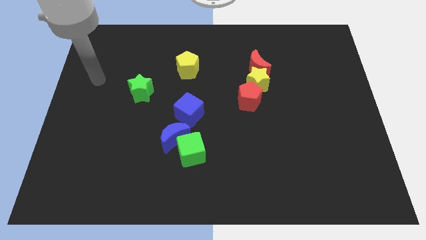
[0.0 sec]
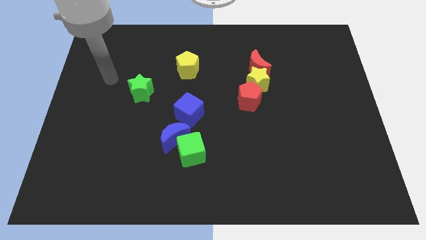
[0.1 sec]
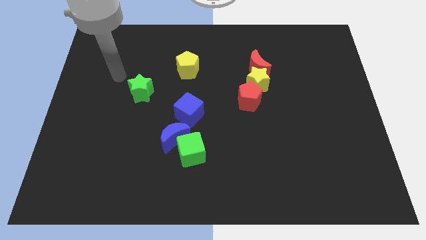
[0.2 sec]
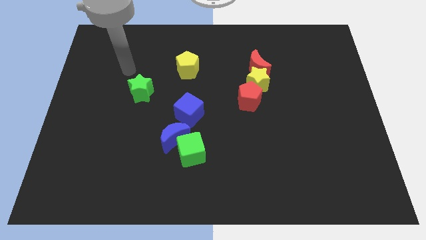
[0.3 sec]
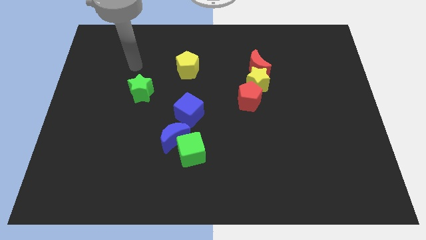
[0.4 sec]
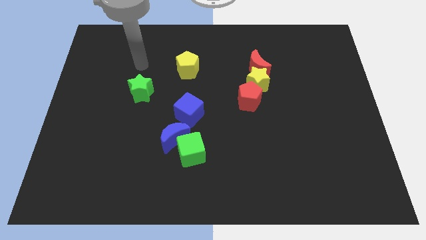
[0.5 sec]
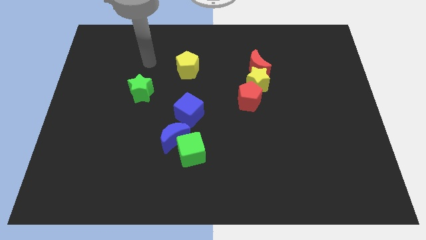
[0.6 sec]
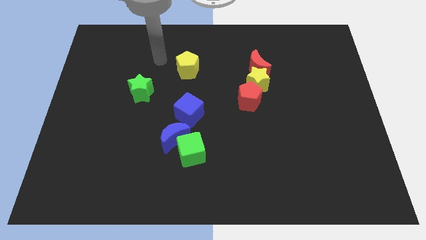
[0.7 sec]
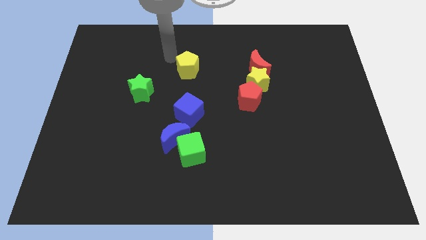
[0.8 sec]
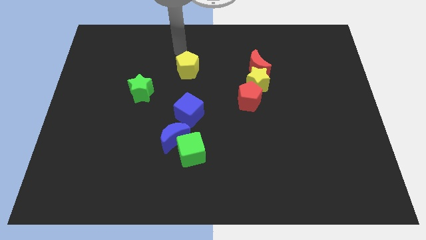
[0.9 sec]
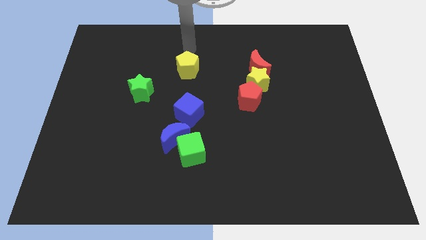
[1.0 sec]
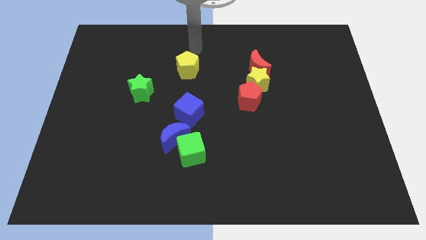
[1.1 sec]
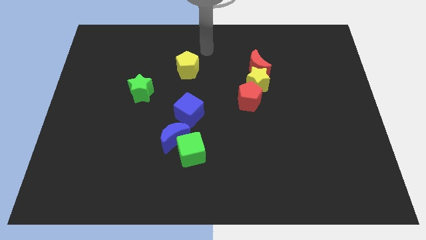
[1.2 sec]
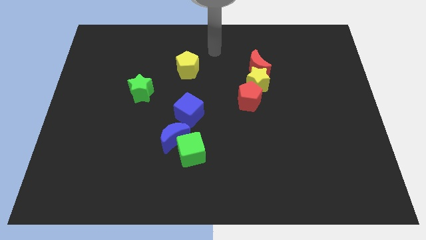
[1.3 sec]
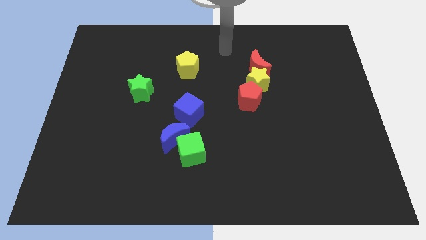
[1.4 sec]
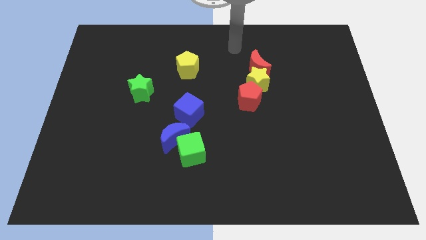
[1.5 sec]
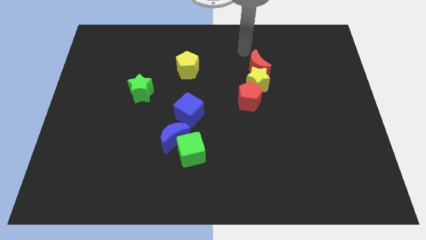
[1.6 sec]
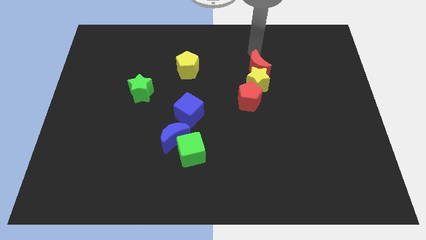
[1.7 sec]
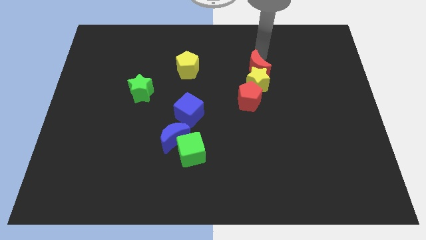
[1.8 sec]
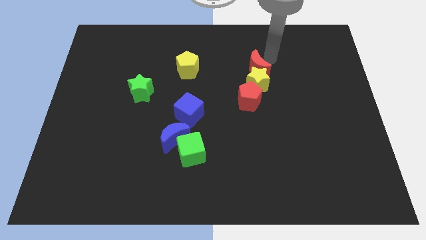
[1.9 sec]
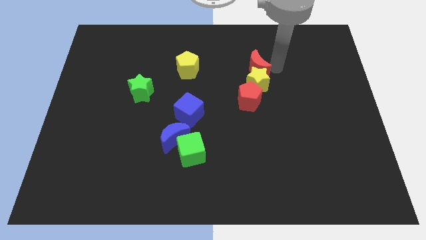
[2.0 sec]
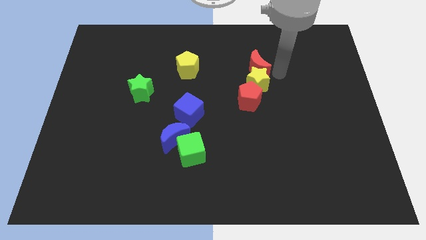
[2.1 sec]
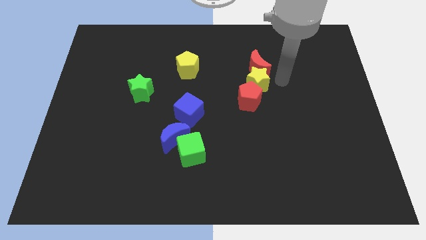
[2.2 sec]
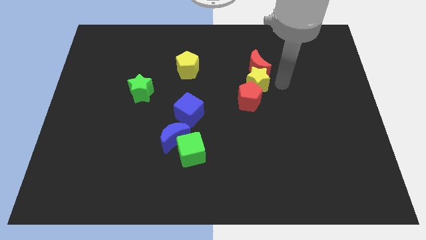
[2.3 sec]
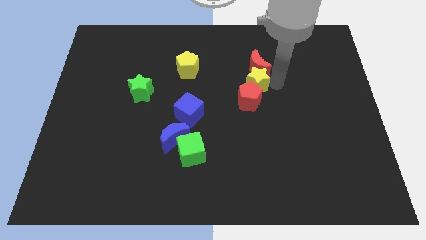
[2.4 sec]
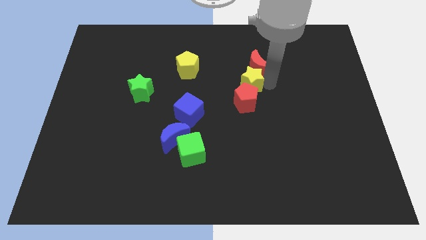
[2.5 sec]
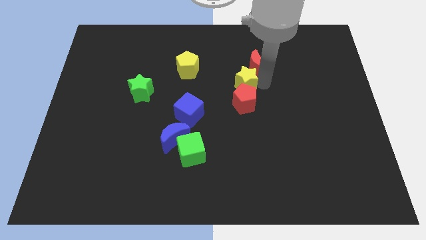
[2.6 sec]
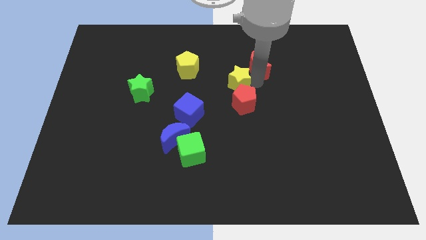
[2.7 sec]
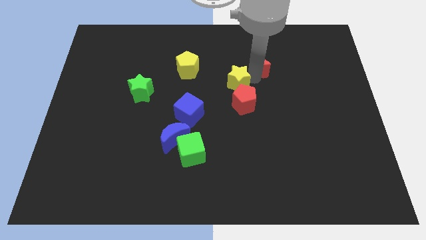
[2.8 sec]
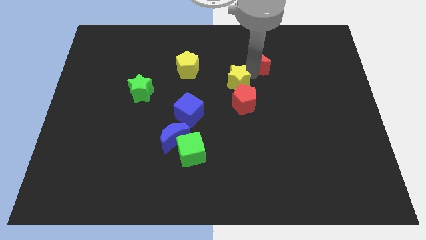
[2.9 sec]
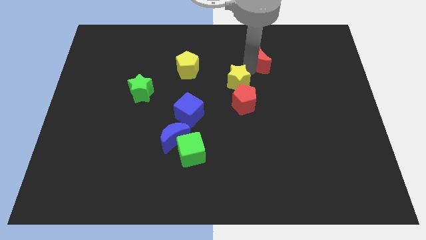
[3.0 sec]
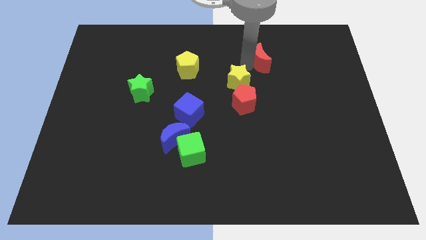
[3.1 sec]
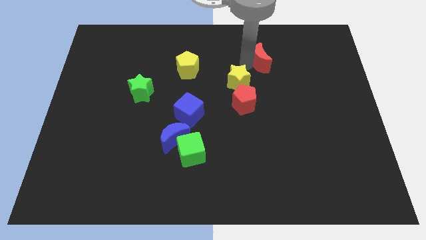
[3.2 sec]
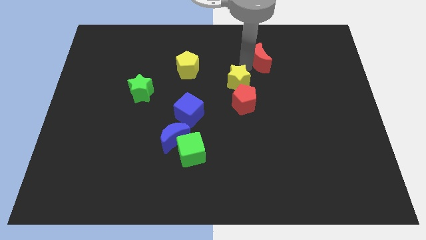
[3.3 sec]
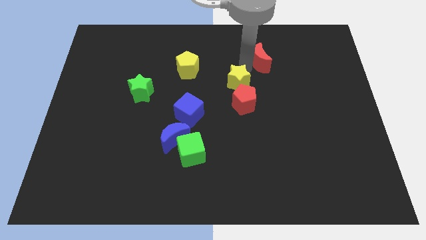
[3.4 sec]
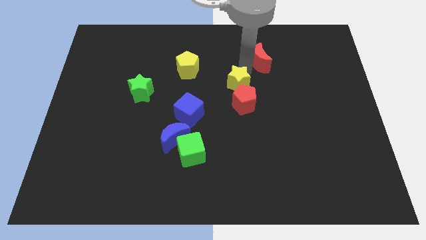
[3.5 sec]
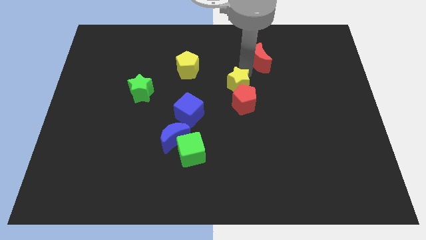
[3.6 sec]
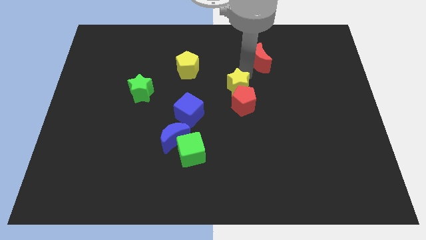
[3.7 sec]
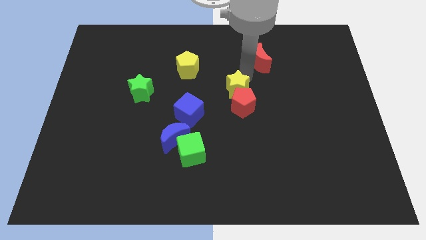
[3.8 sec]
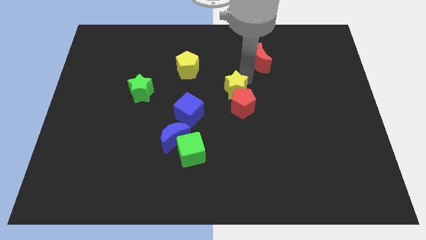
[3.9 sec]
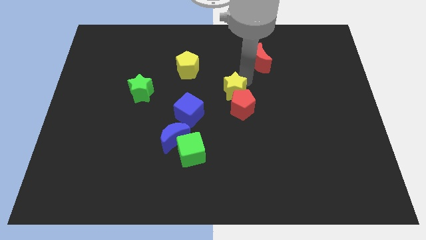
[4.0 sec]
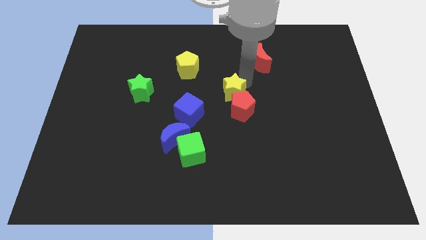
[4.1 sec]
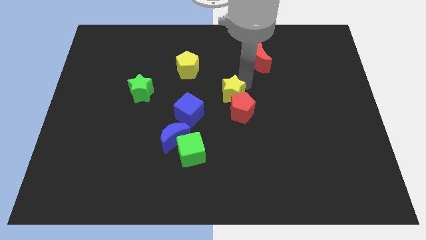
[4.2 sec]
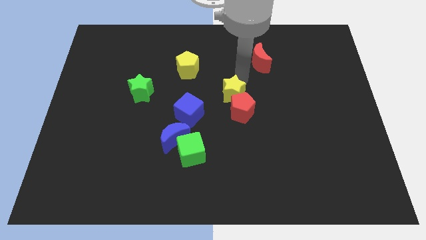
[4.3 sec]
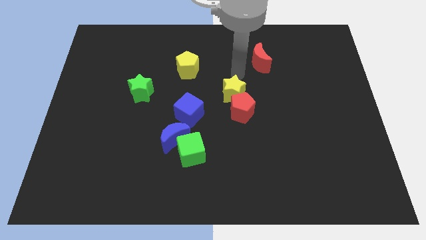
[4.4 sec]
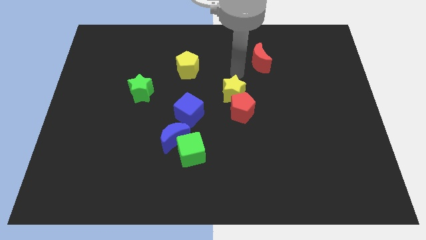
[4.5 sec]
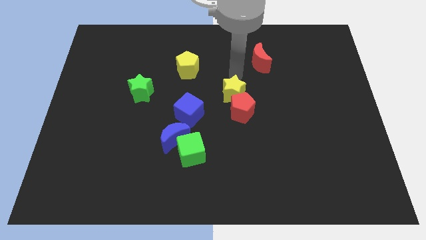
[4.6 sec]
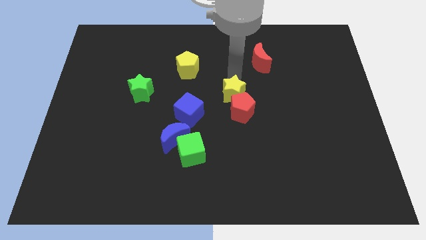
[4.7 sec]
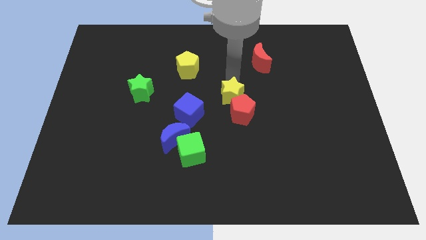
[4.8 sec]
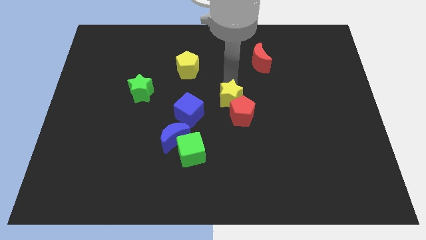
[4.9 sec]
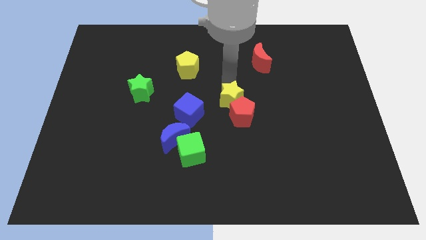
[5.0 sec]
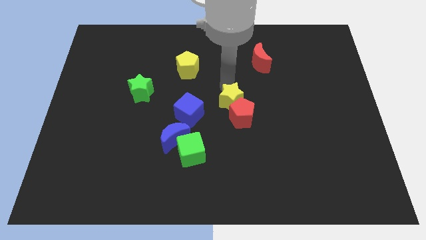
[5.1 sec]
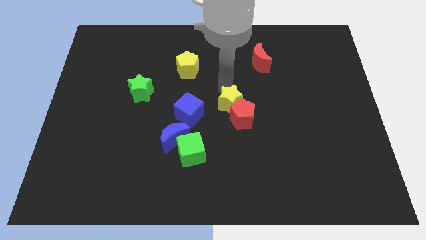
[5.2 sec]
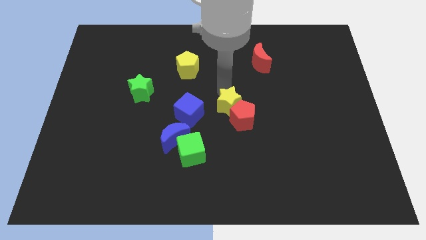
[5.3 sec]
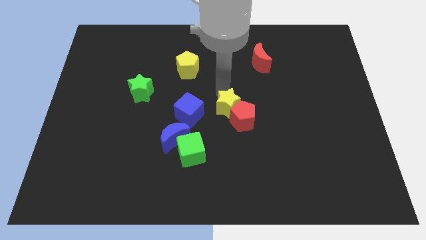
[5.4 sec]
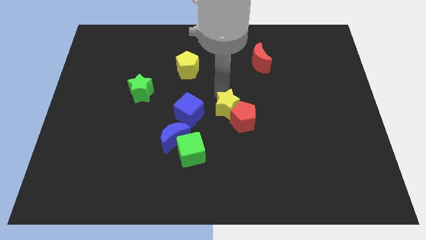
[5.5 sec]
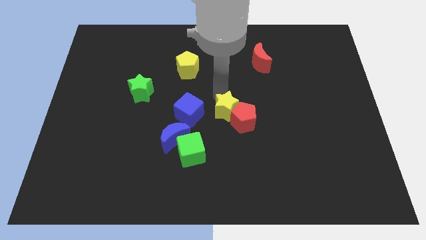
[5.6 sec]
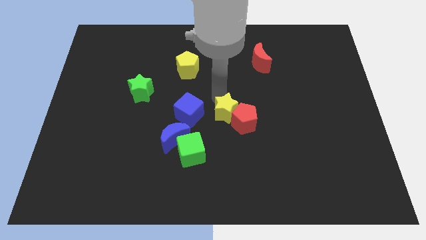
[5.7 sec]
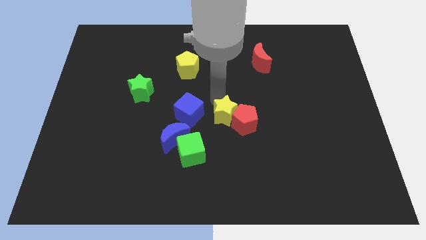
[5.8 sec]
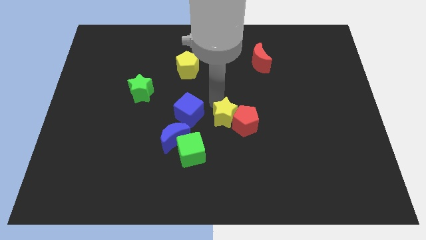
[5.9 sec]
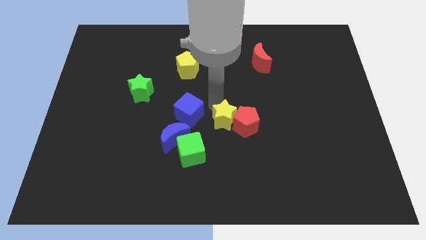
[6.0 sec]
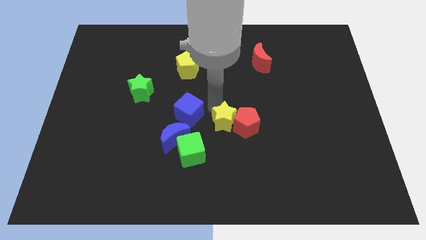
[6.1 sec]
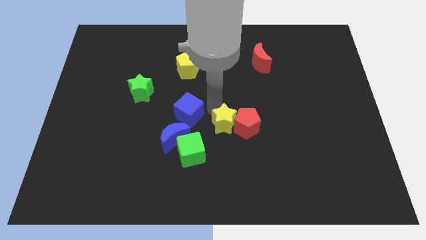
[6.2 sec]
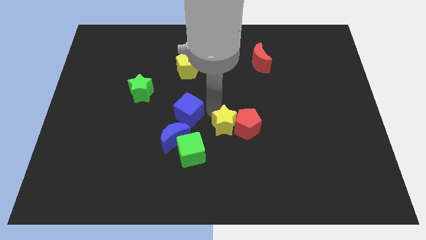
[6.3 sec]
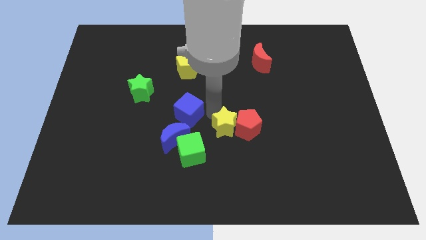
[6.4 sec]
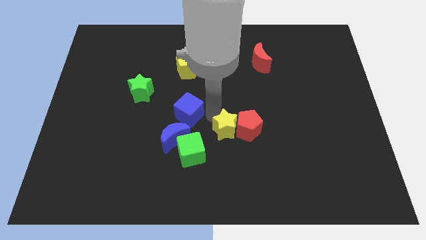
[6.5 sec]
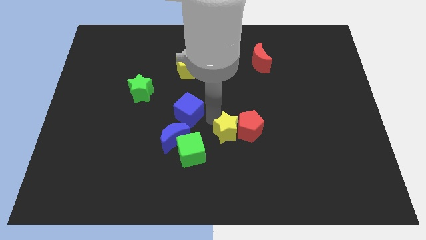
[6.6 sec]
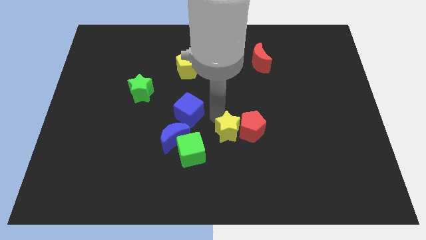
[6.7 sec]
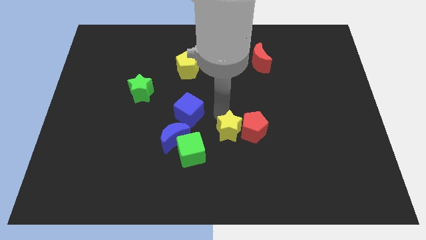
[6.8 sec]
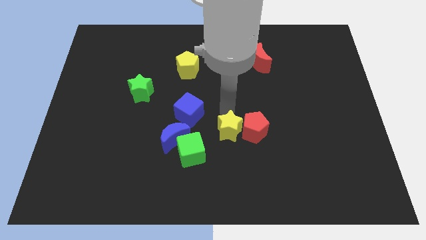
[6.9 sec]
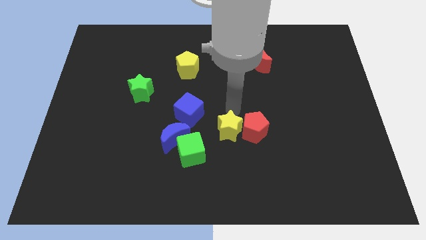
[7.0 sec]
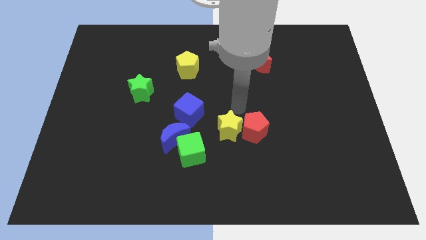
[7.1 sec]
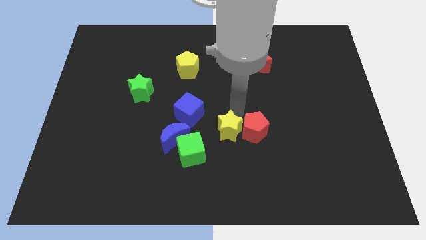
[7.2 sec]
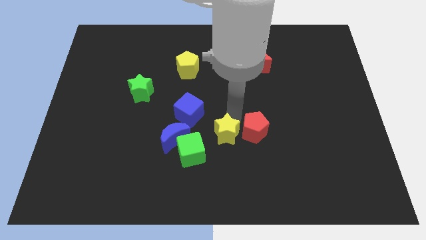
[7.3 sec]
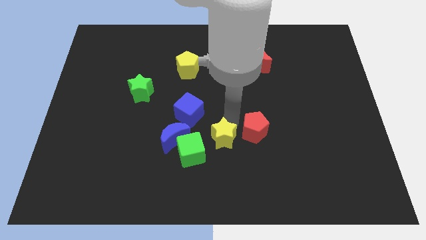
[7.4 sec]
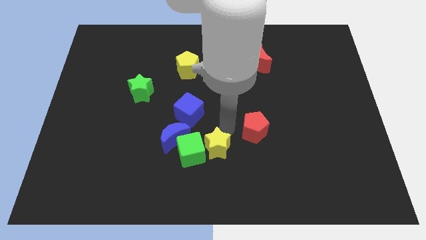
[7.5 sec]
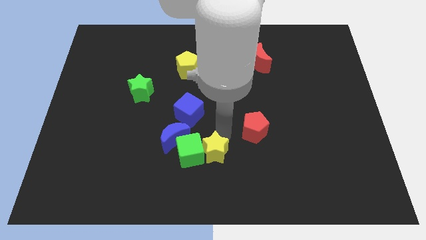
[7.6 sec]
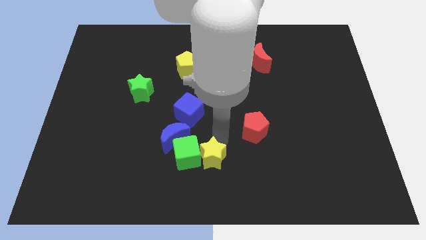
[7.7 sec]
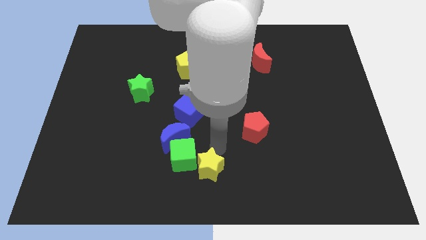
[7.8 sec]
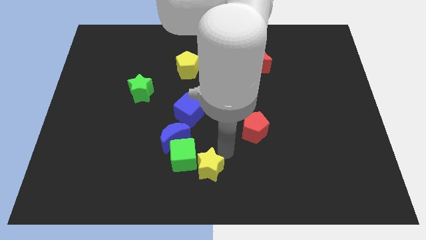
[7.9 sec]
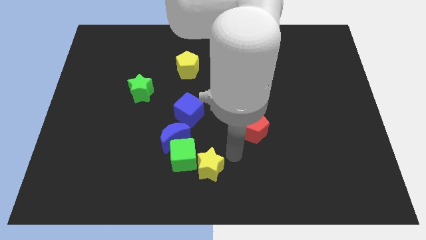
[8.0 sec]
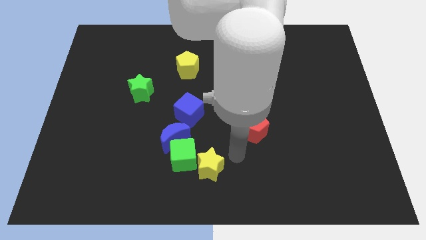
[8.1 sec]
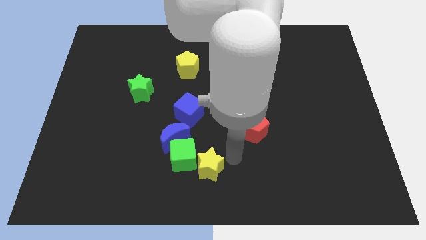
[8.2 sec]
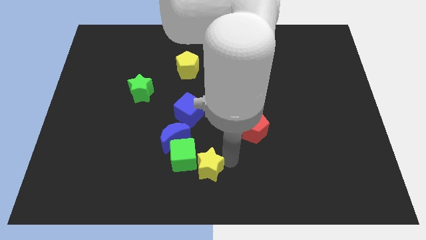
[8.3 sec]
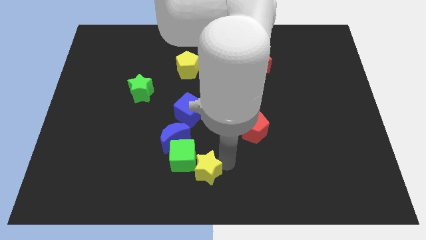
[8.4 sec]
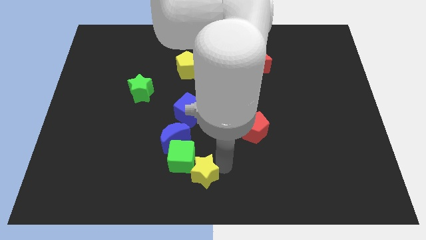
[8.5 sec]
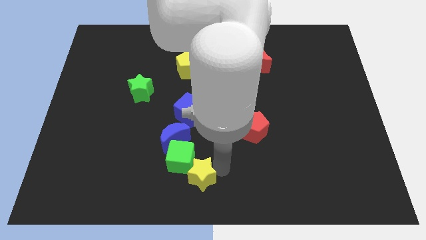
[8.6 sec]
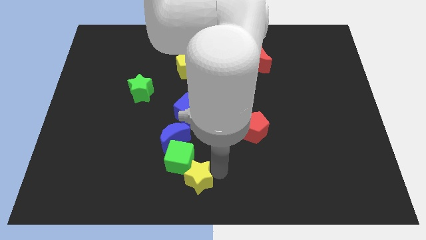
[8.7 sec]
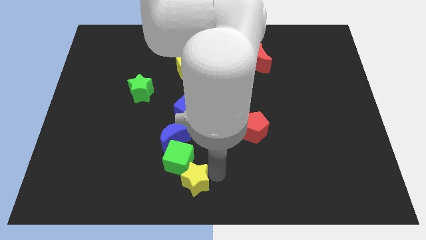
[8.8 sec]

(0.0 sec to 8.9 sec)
push the yellow star below the blue moon
